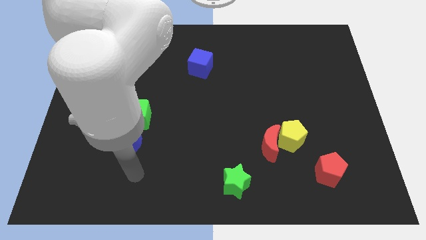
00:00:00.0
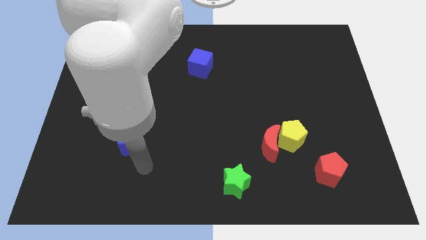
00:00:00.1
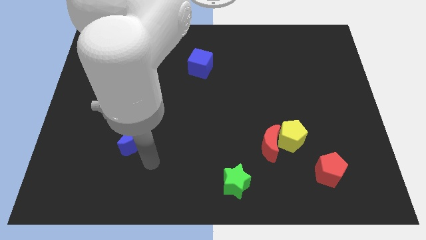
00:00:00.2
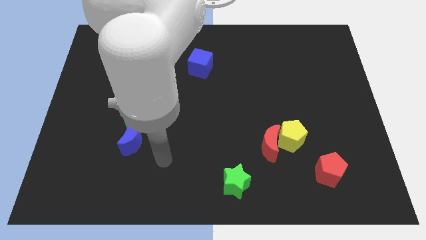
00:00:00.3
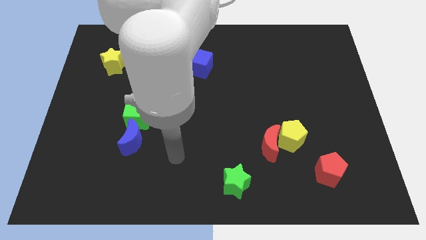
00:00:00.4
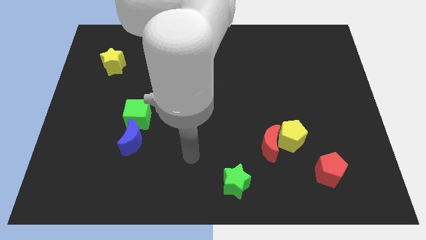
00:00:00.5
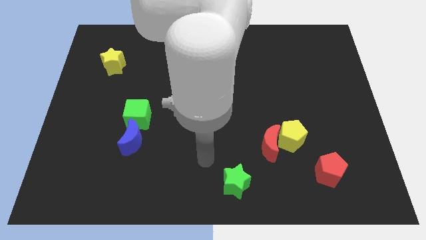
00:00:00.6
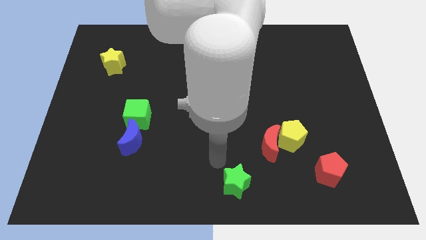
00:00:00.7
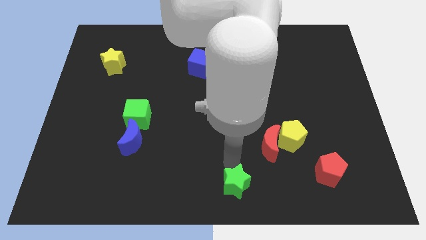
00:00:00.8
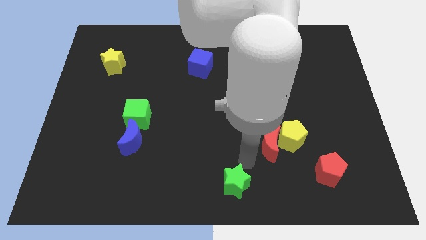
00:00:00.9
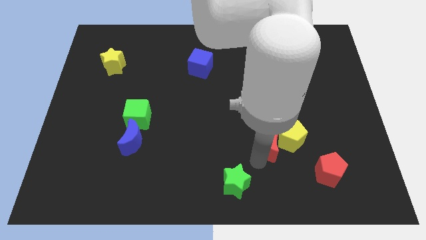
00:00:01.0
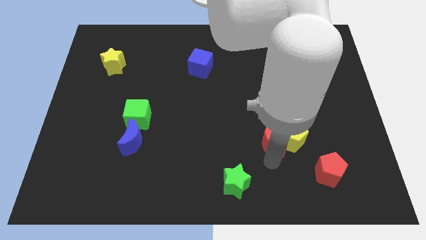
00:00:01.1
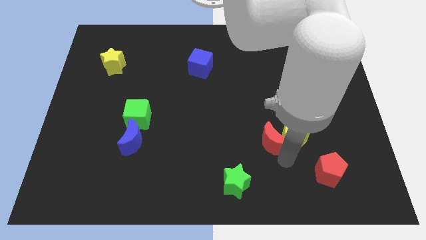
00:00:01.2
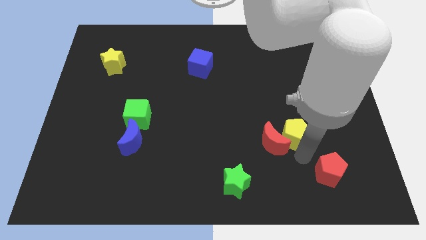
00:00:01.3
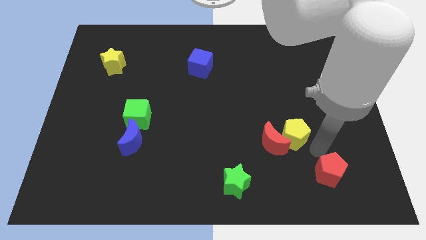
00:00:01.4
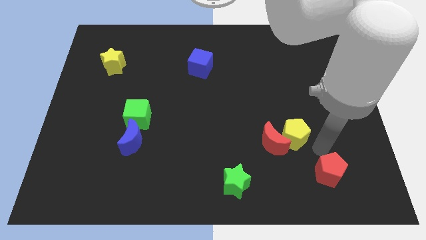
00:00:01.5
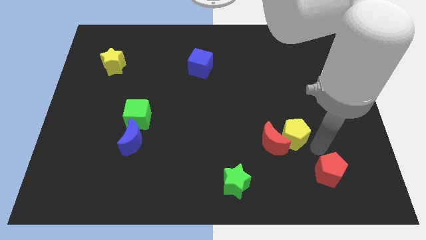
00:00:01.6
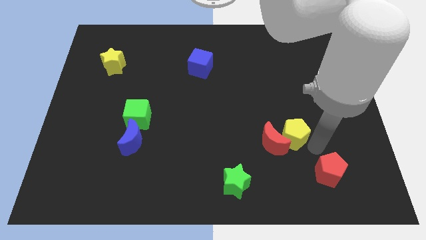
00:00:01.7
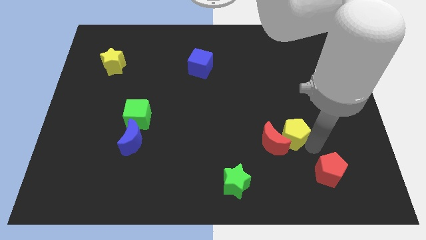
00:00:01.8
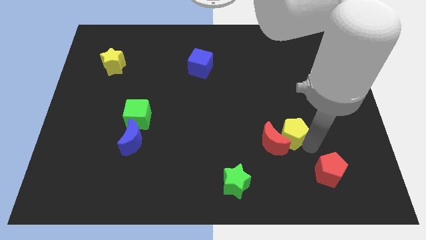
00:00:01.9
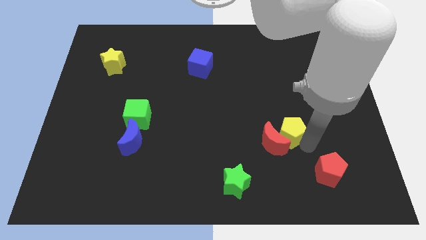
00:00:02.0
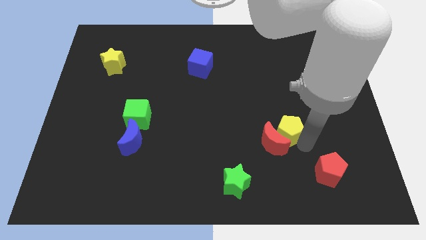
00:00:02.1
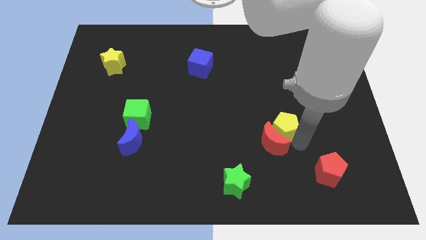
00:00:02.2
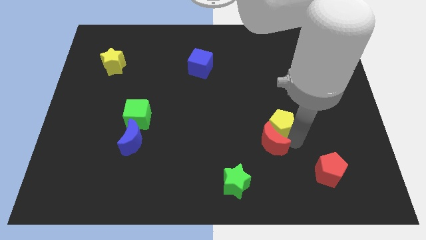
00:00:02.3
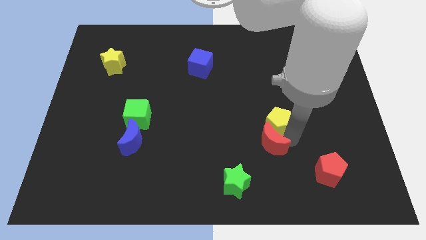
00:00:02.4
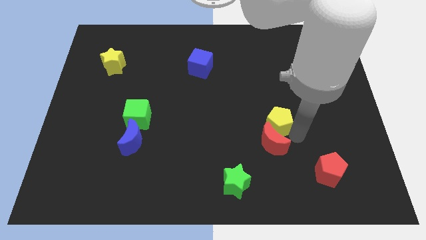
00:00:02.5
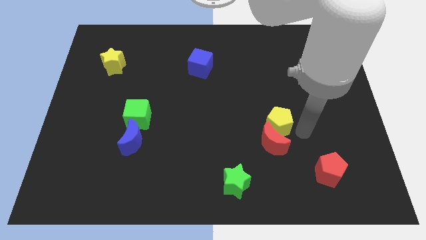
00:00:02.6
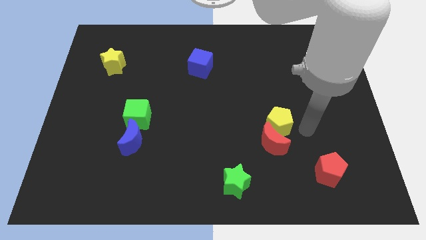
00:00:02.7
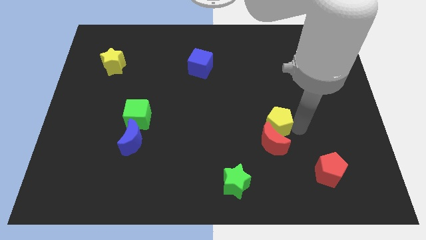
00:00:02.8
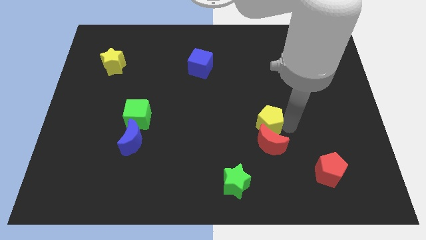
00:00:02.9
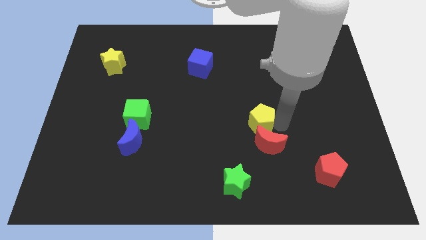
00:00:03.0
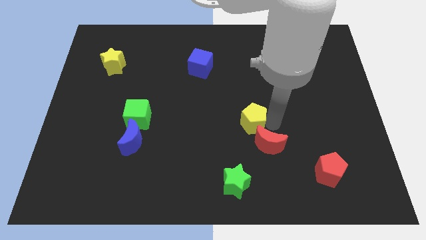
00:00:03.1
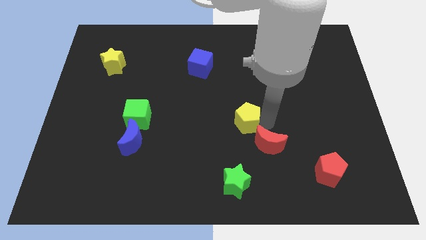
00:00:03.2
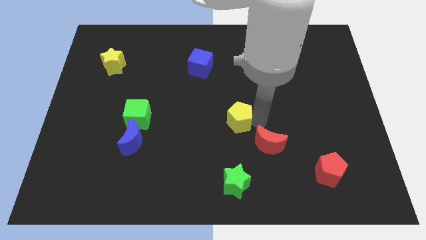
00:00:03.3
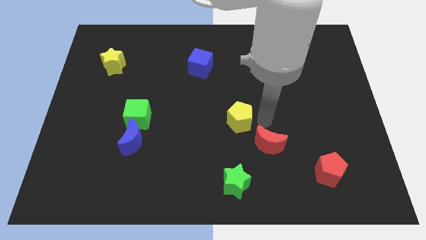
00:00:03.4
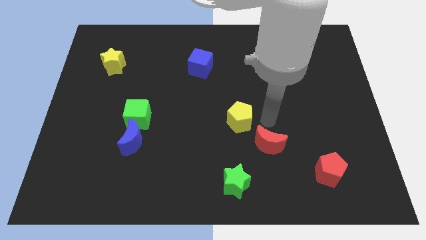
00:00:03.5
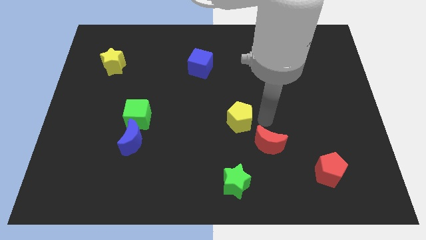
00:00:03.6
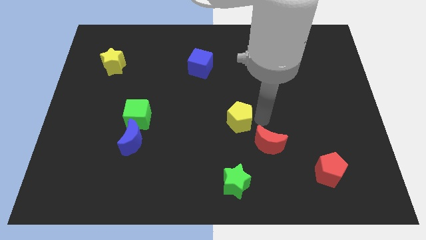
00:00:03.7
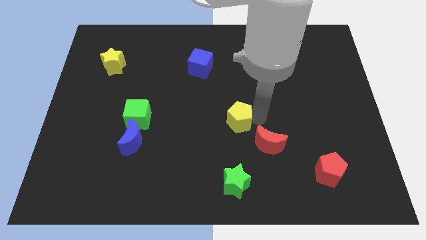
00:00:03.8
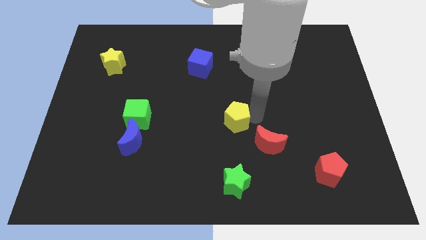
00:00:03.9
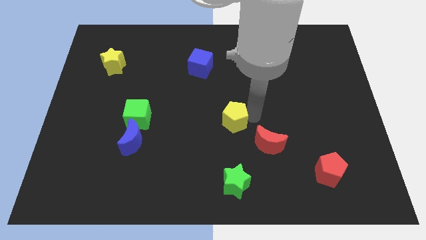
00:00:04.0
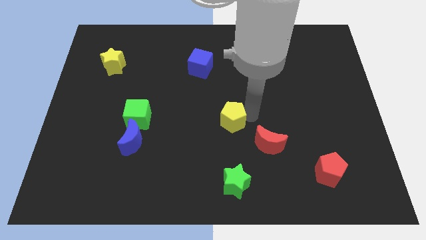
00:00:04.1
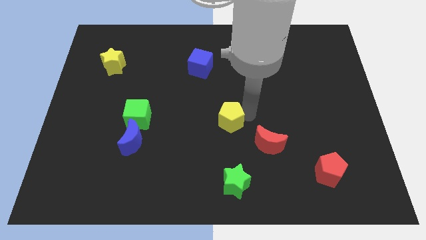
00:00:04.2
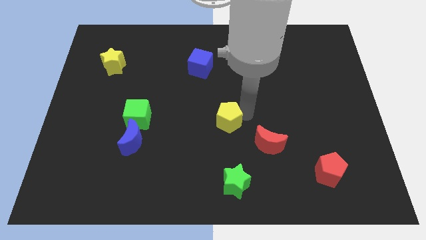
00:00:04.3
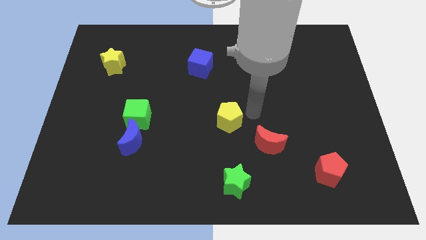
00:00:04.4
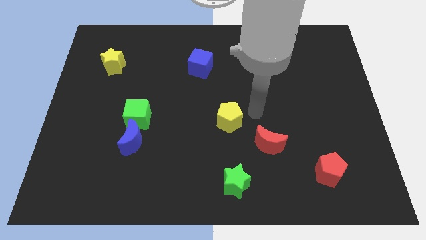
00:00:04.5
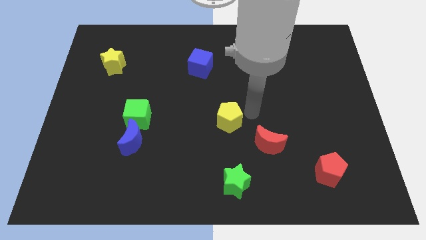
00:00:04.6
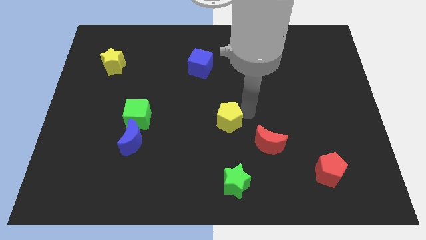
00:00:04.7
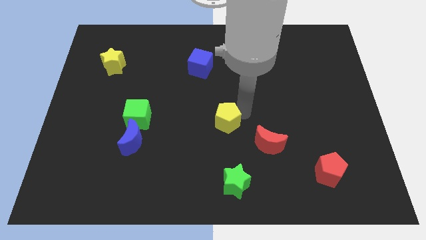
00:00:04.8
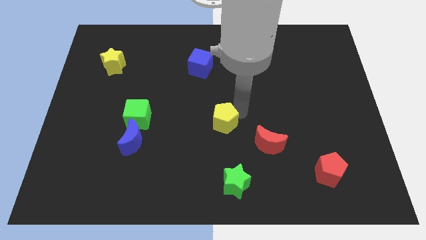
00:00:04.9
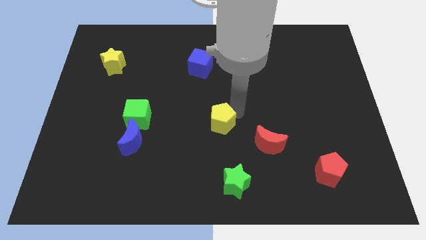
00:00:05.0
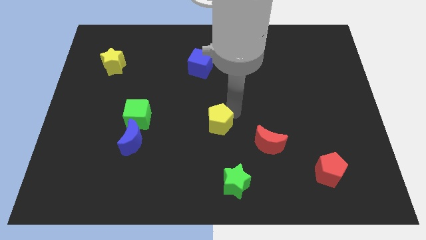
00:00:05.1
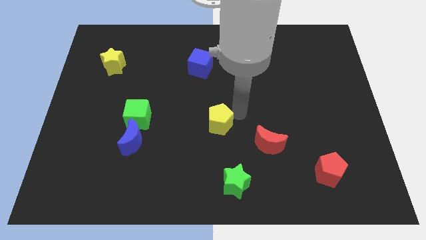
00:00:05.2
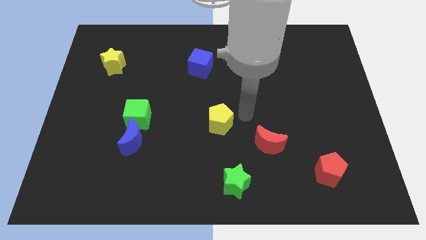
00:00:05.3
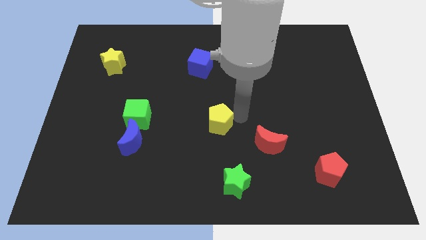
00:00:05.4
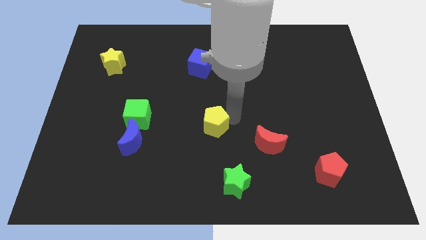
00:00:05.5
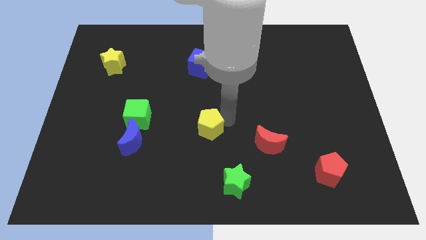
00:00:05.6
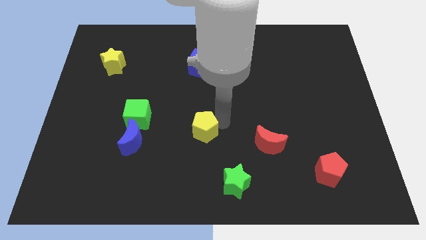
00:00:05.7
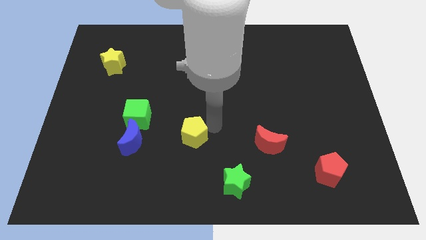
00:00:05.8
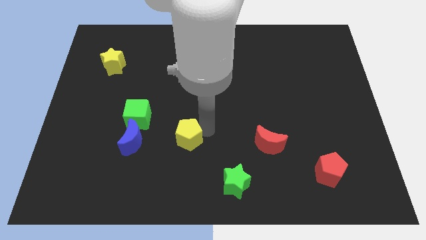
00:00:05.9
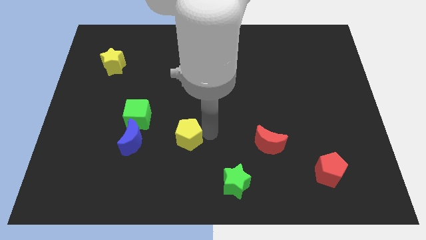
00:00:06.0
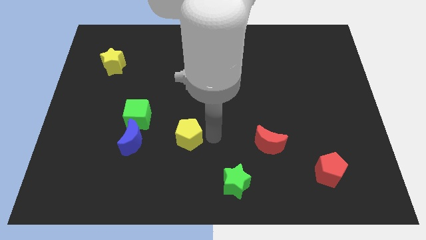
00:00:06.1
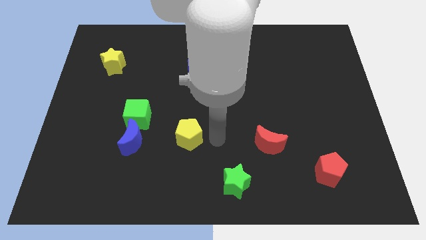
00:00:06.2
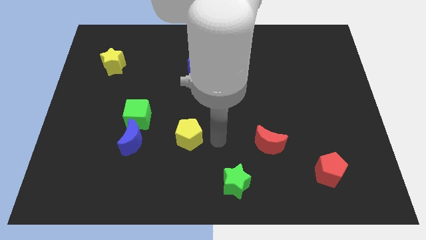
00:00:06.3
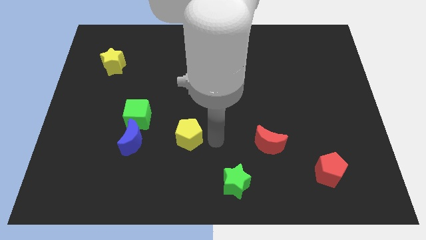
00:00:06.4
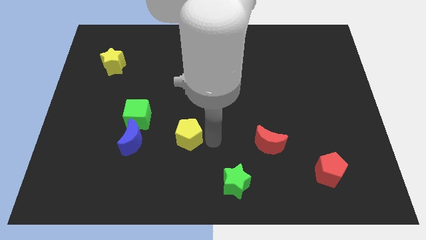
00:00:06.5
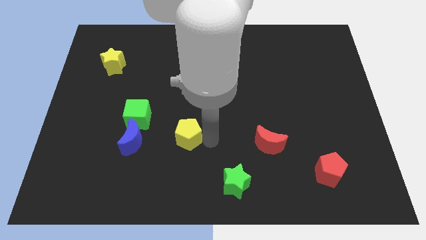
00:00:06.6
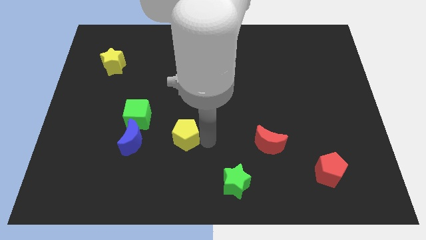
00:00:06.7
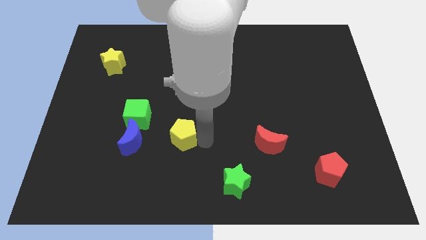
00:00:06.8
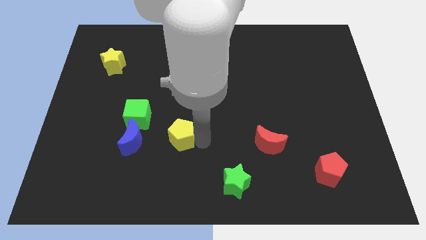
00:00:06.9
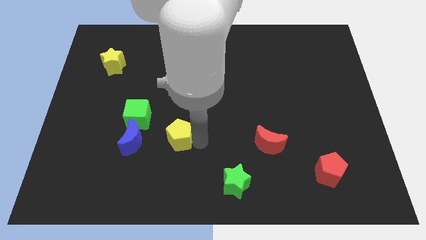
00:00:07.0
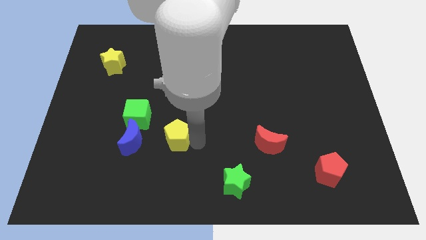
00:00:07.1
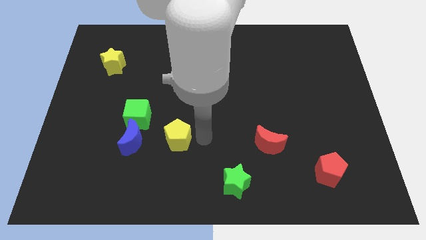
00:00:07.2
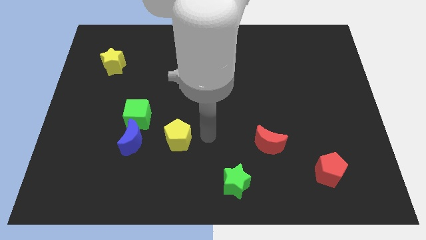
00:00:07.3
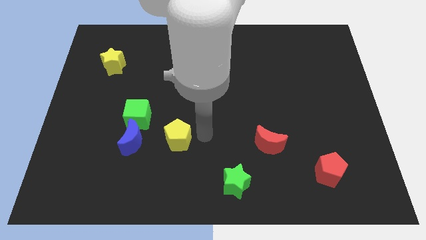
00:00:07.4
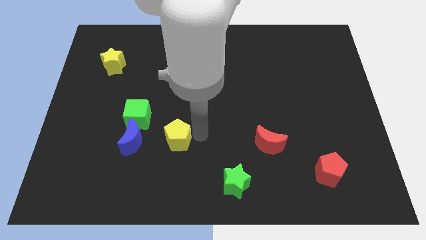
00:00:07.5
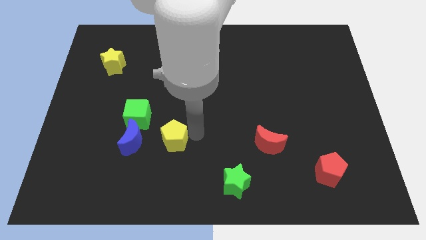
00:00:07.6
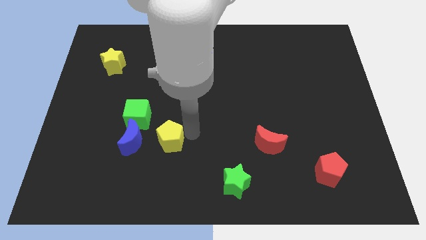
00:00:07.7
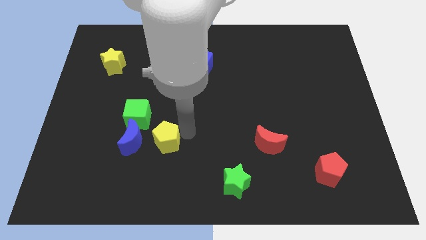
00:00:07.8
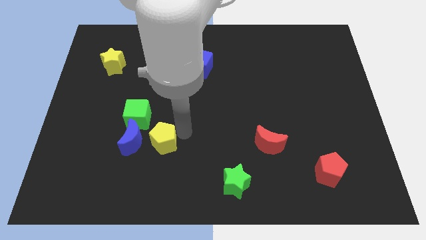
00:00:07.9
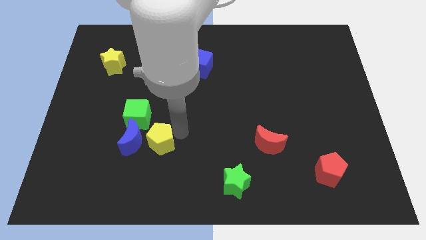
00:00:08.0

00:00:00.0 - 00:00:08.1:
move the yellow pentagon next to the blue moon
